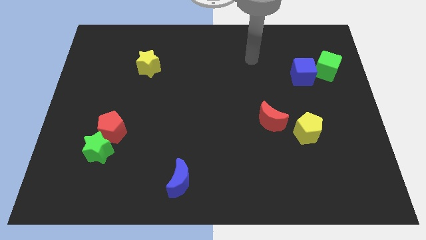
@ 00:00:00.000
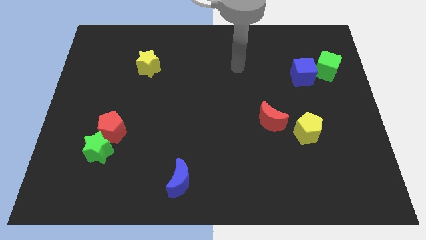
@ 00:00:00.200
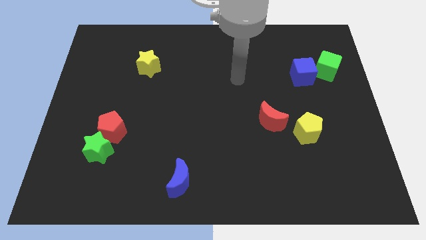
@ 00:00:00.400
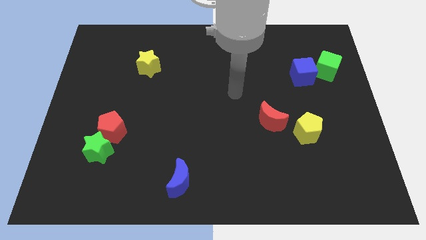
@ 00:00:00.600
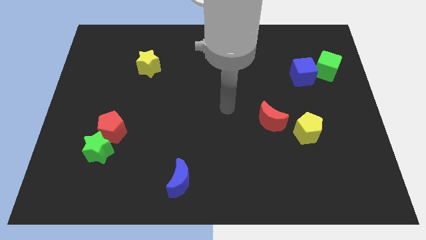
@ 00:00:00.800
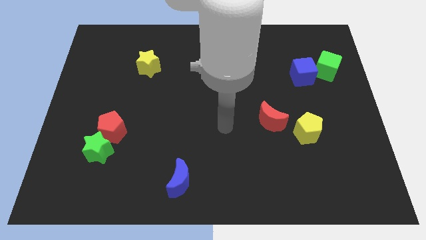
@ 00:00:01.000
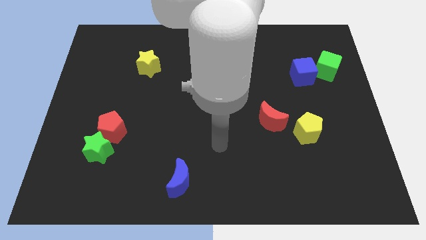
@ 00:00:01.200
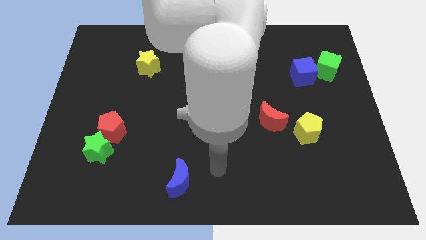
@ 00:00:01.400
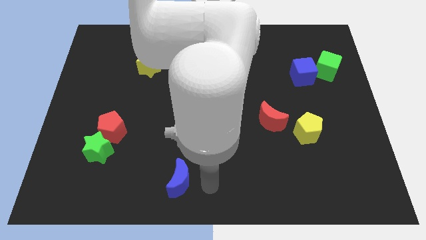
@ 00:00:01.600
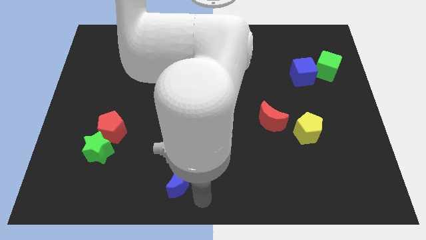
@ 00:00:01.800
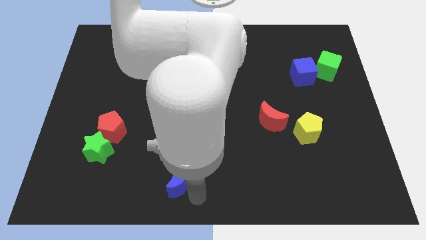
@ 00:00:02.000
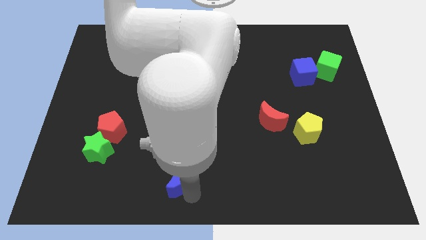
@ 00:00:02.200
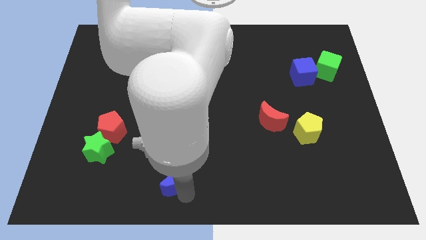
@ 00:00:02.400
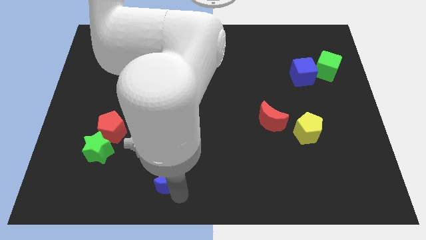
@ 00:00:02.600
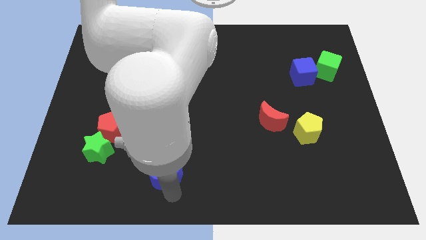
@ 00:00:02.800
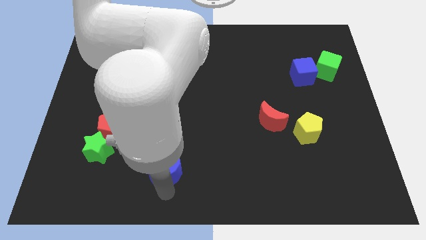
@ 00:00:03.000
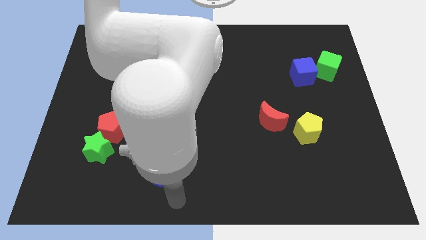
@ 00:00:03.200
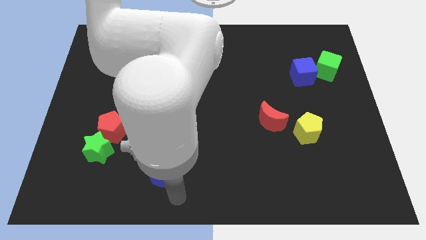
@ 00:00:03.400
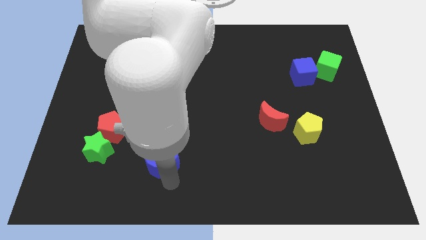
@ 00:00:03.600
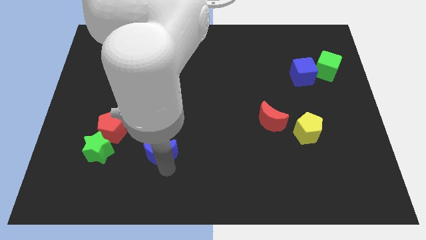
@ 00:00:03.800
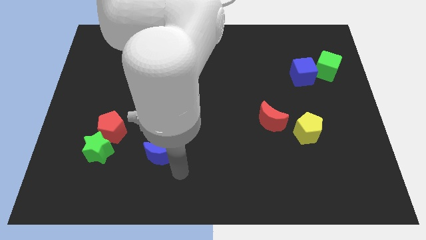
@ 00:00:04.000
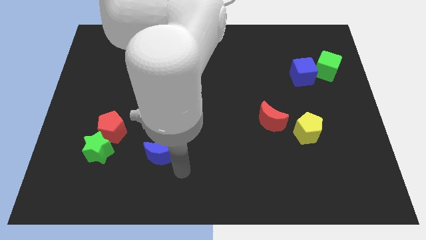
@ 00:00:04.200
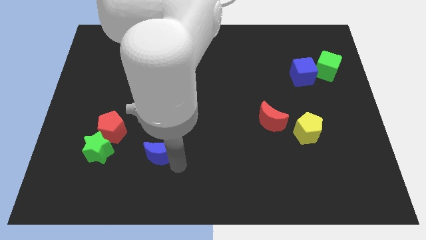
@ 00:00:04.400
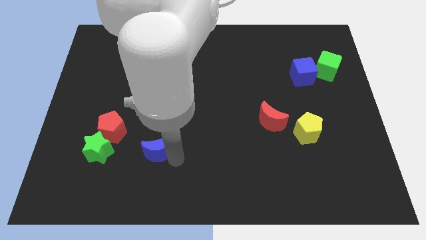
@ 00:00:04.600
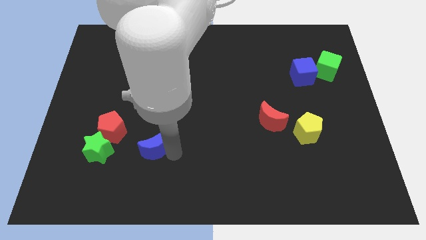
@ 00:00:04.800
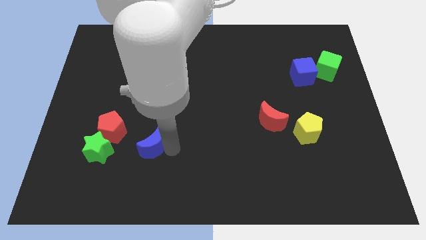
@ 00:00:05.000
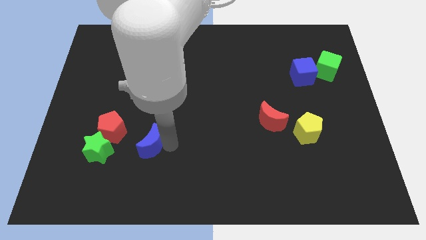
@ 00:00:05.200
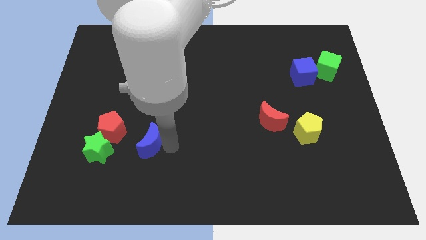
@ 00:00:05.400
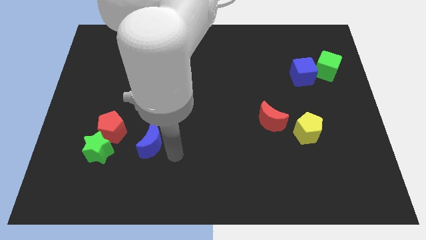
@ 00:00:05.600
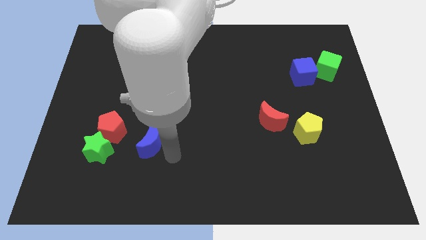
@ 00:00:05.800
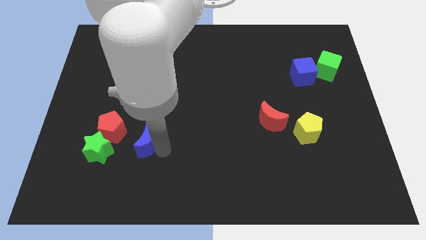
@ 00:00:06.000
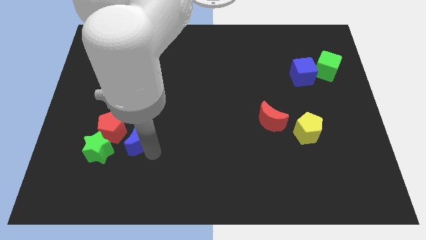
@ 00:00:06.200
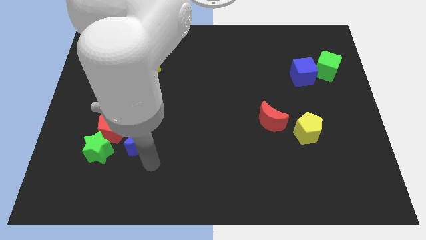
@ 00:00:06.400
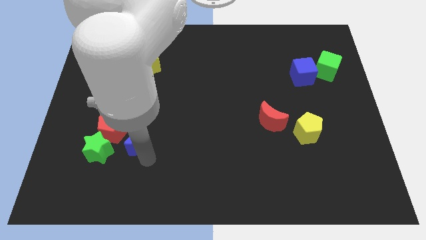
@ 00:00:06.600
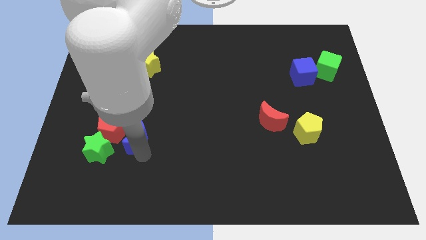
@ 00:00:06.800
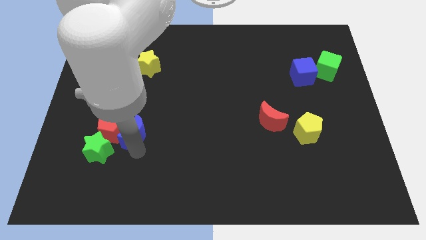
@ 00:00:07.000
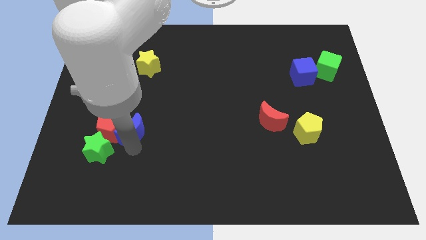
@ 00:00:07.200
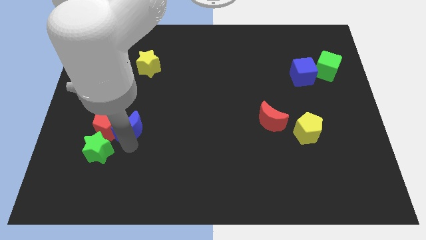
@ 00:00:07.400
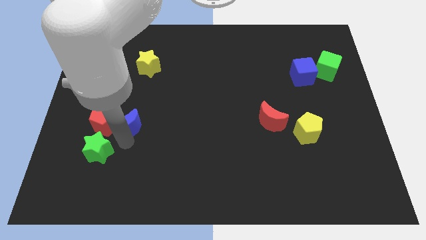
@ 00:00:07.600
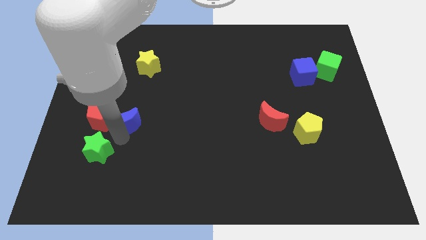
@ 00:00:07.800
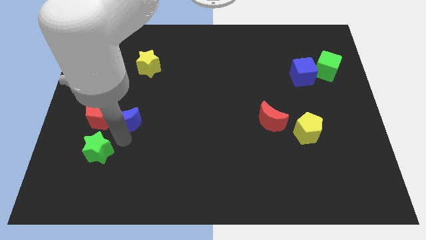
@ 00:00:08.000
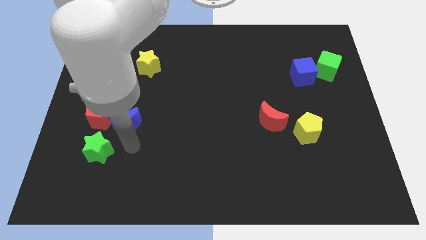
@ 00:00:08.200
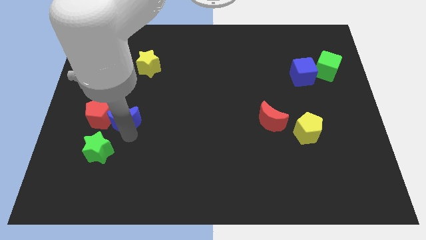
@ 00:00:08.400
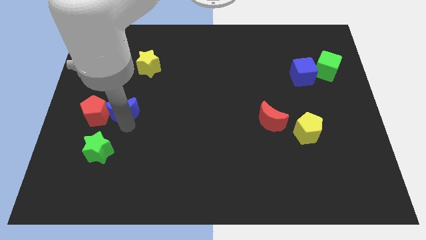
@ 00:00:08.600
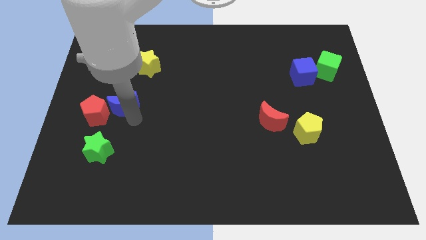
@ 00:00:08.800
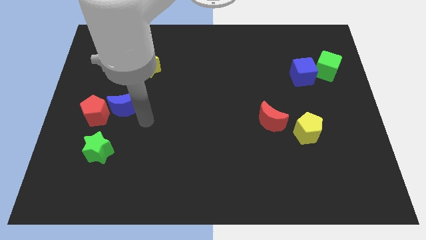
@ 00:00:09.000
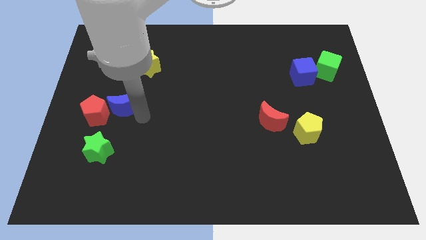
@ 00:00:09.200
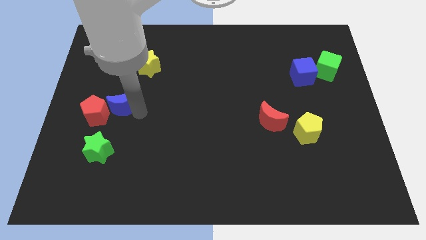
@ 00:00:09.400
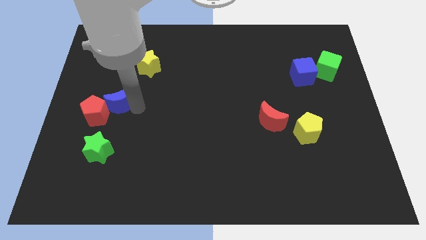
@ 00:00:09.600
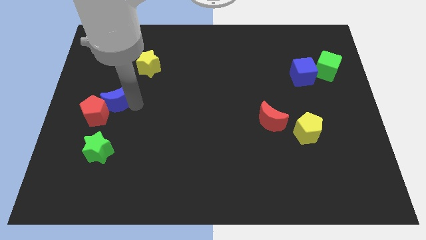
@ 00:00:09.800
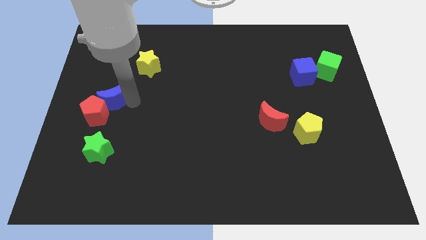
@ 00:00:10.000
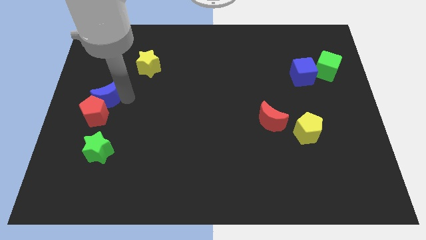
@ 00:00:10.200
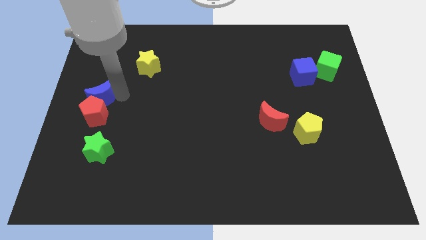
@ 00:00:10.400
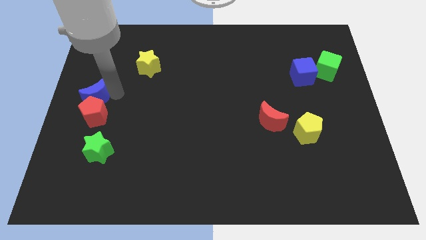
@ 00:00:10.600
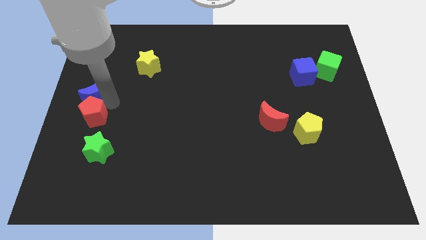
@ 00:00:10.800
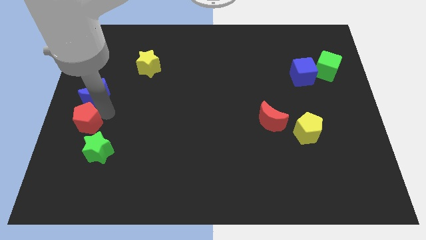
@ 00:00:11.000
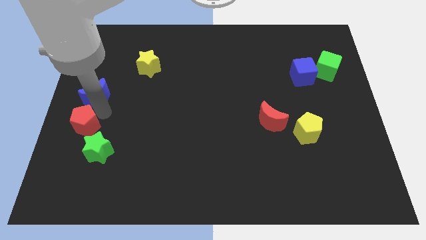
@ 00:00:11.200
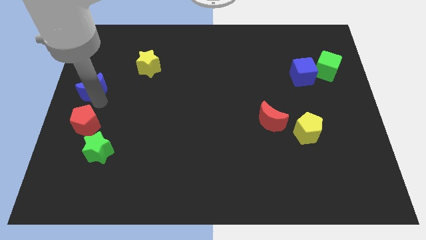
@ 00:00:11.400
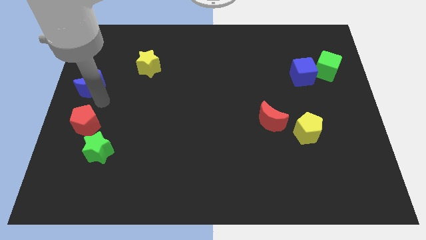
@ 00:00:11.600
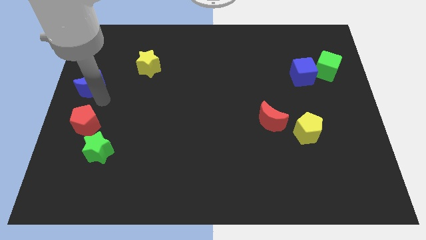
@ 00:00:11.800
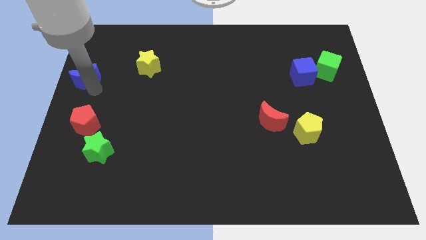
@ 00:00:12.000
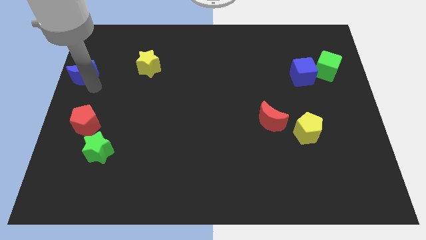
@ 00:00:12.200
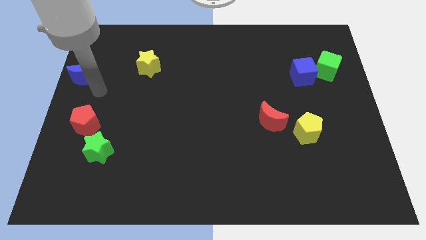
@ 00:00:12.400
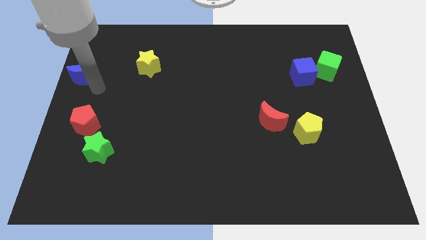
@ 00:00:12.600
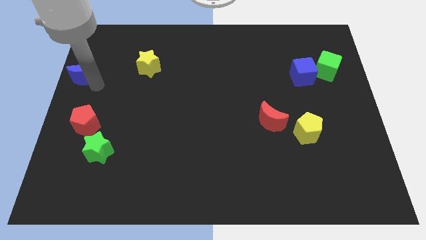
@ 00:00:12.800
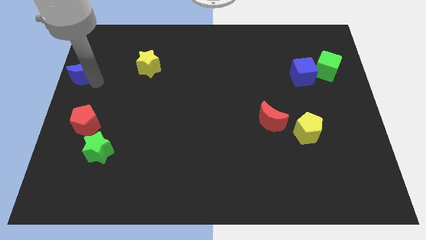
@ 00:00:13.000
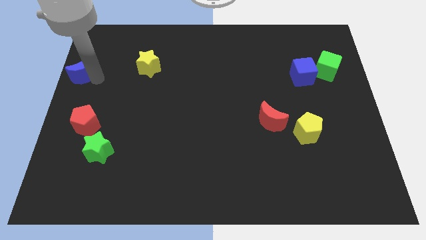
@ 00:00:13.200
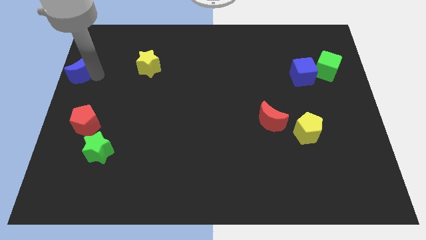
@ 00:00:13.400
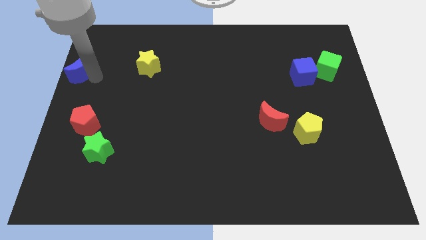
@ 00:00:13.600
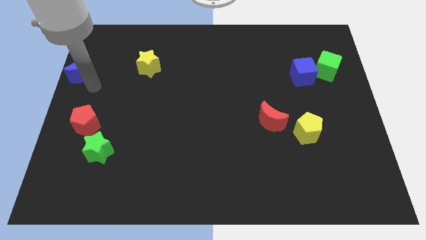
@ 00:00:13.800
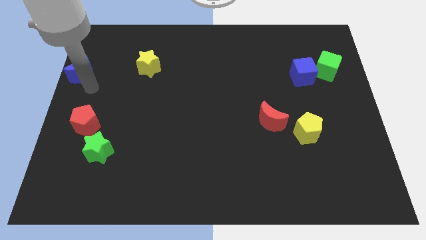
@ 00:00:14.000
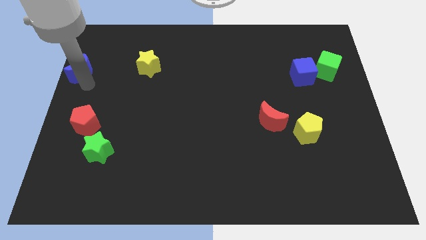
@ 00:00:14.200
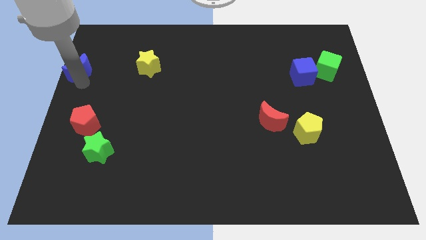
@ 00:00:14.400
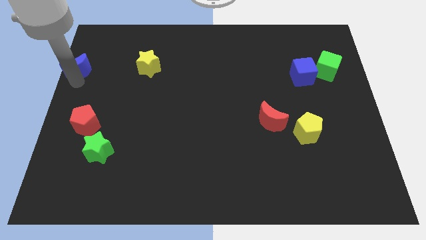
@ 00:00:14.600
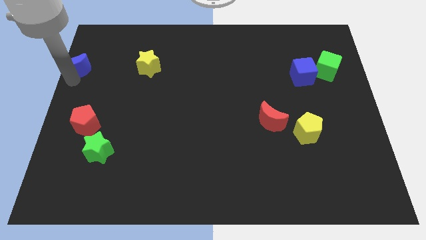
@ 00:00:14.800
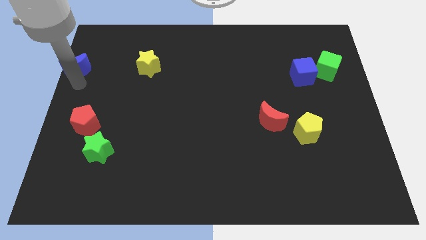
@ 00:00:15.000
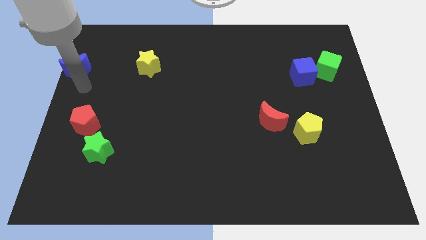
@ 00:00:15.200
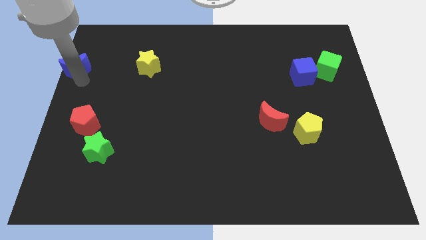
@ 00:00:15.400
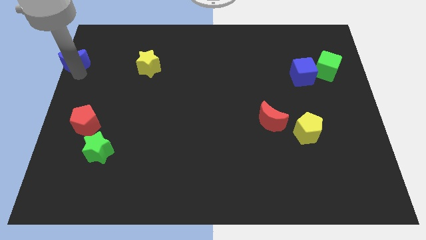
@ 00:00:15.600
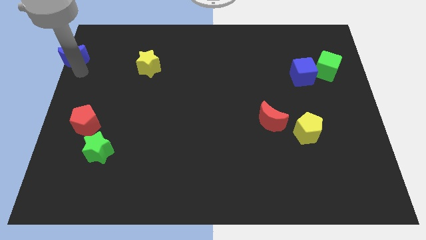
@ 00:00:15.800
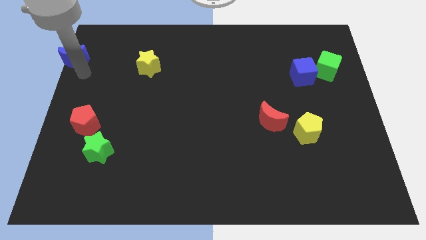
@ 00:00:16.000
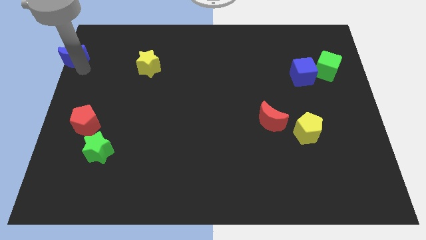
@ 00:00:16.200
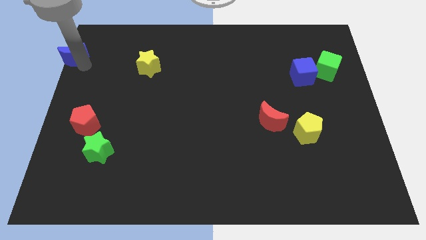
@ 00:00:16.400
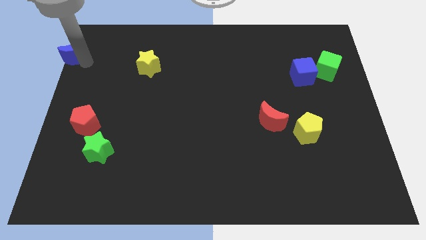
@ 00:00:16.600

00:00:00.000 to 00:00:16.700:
move the blue moon to the top left
